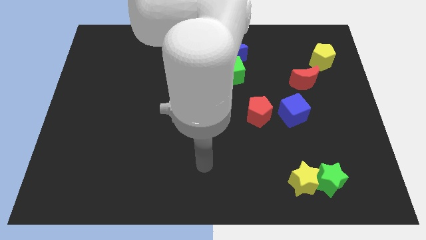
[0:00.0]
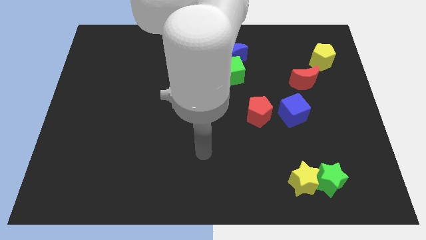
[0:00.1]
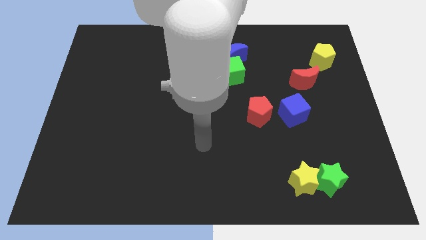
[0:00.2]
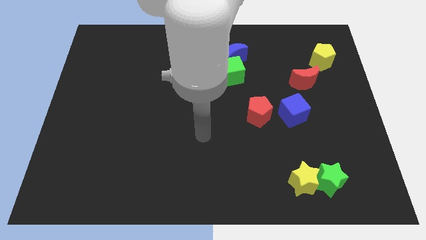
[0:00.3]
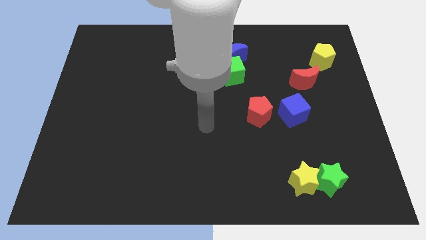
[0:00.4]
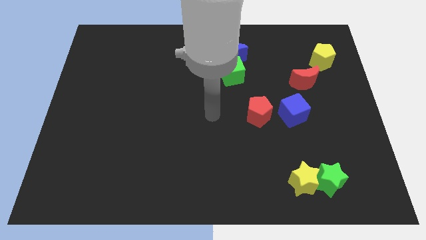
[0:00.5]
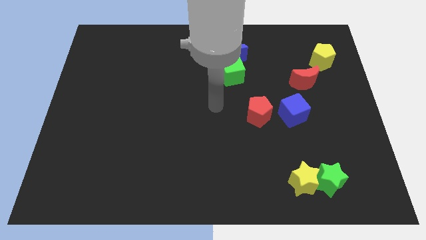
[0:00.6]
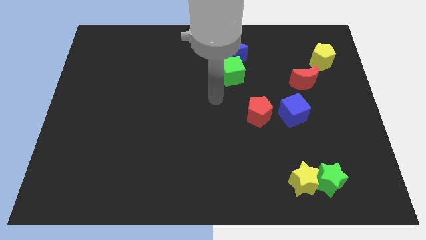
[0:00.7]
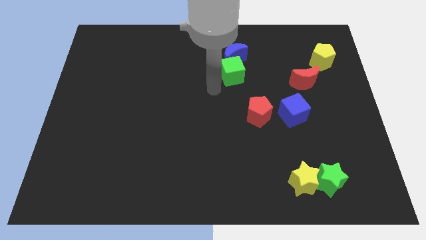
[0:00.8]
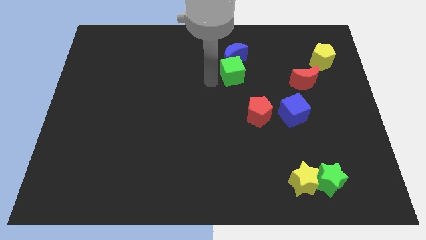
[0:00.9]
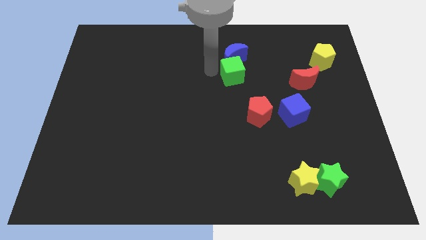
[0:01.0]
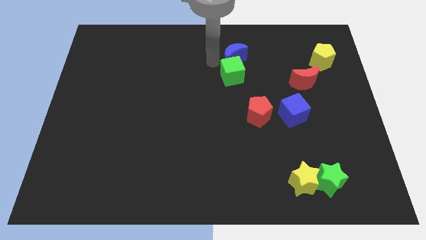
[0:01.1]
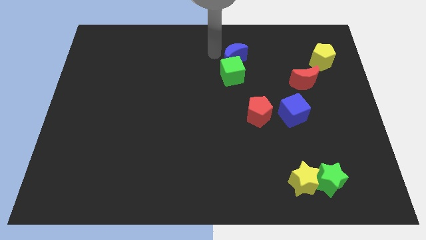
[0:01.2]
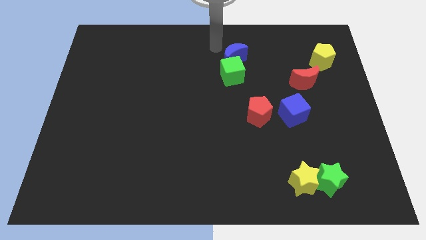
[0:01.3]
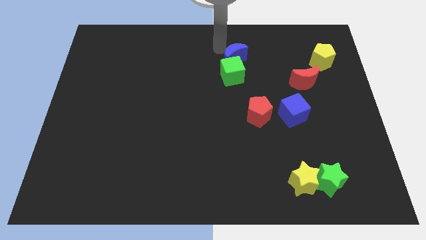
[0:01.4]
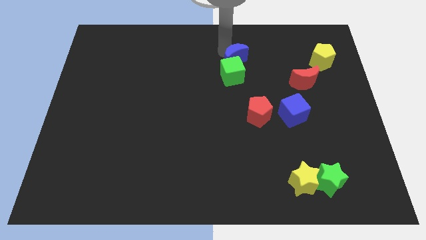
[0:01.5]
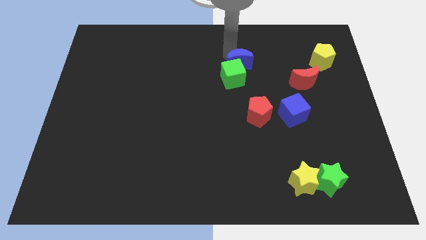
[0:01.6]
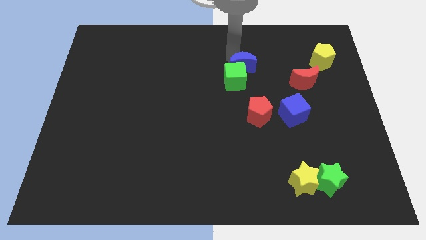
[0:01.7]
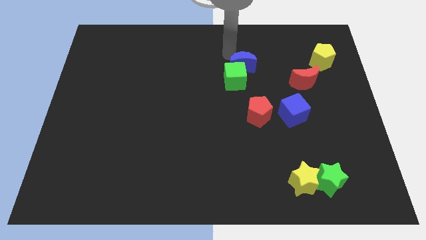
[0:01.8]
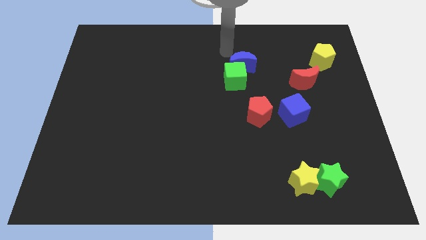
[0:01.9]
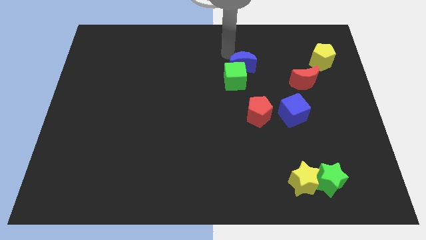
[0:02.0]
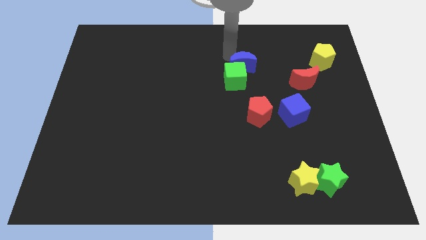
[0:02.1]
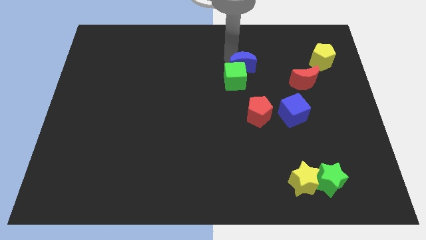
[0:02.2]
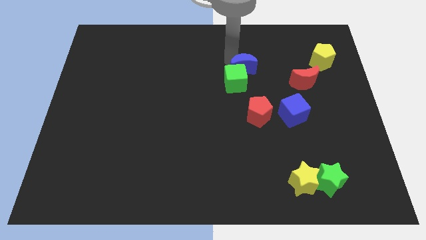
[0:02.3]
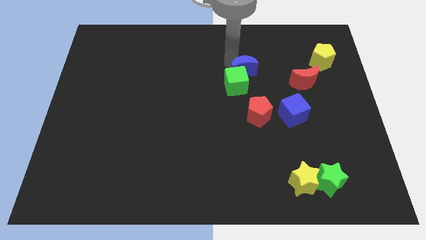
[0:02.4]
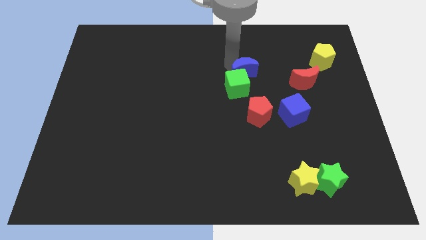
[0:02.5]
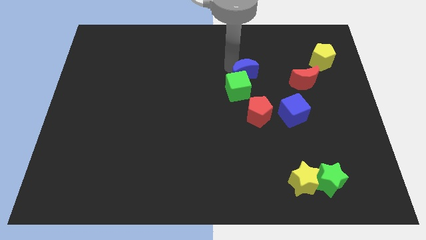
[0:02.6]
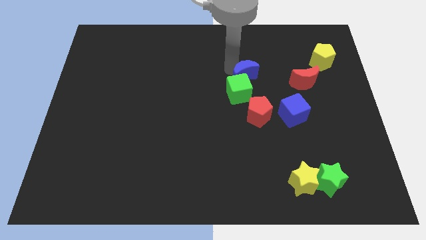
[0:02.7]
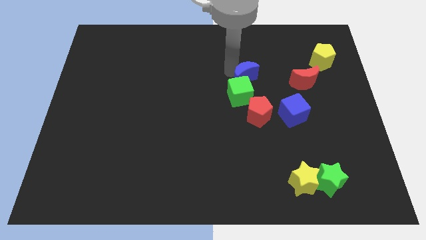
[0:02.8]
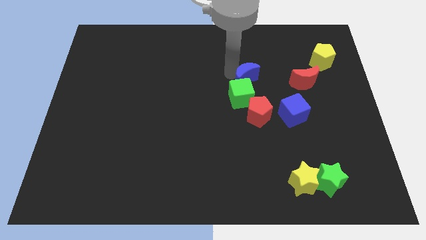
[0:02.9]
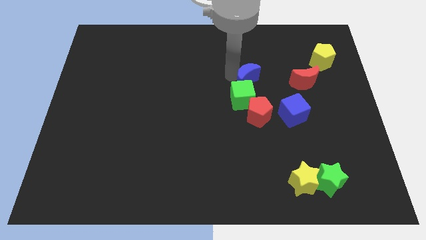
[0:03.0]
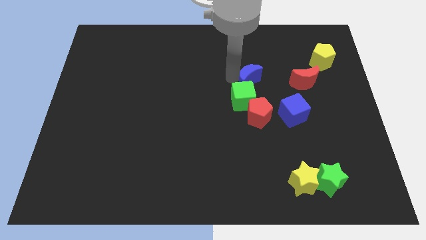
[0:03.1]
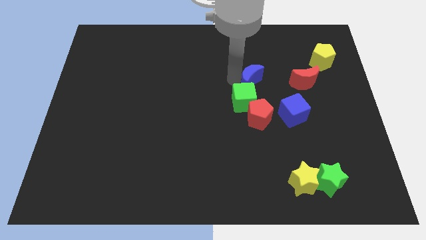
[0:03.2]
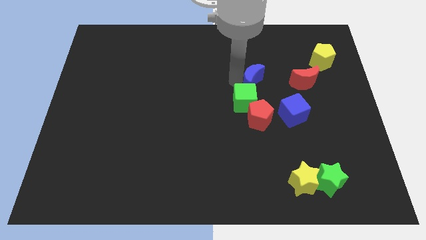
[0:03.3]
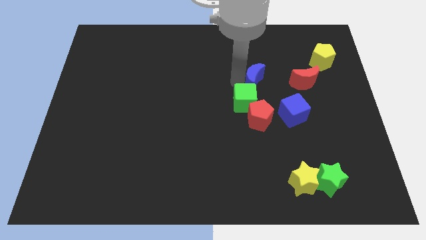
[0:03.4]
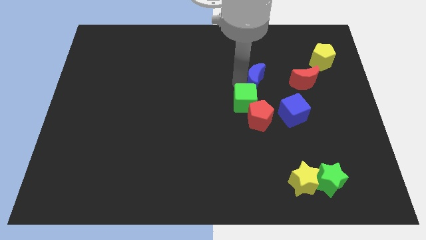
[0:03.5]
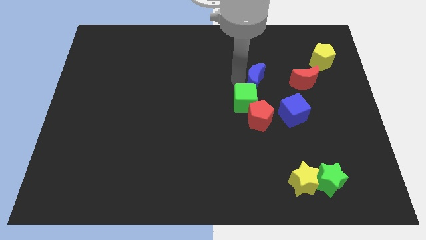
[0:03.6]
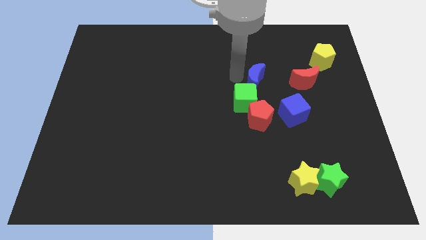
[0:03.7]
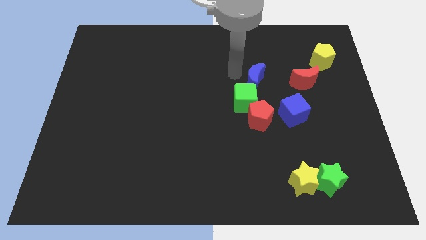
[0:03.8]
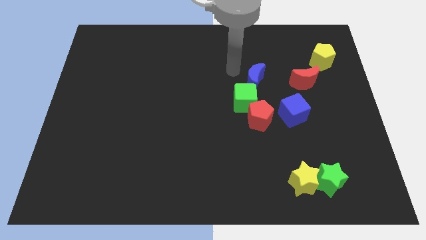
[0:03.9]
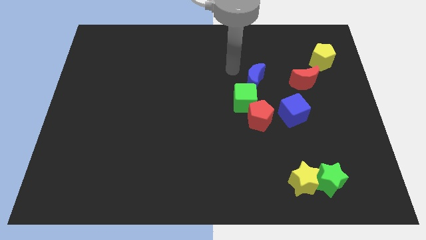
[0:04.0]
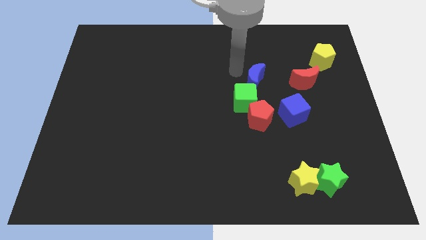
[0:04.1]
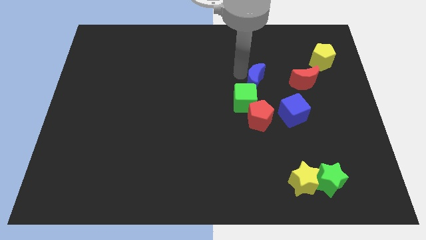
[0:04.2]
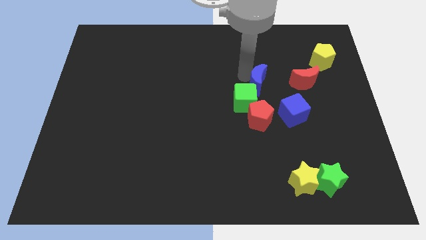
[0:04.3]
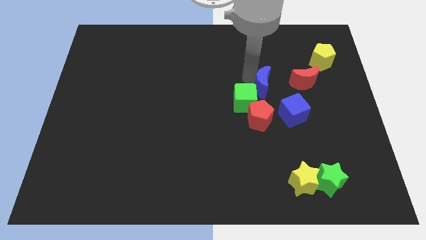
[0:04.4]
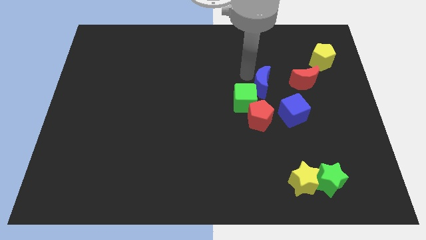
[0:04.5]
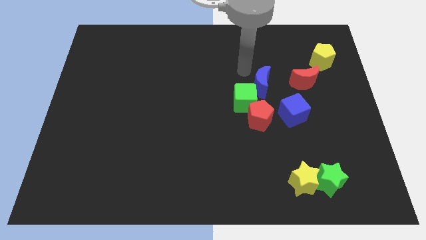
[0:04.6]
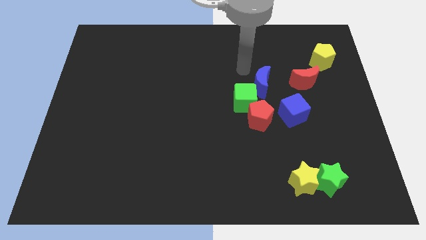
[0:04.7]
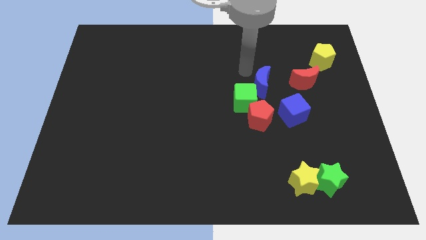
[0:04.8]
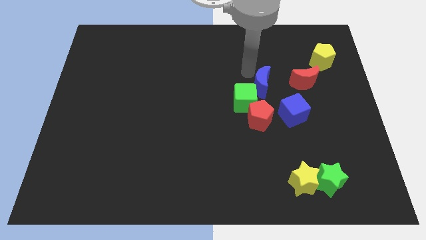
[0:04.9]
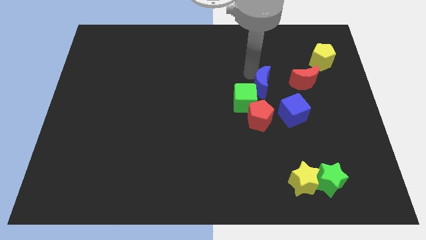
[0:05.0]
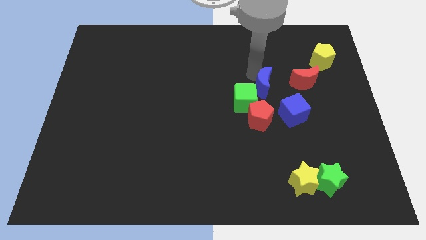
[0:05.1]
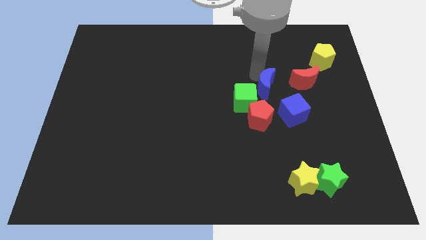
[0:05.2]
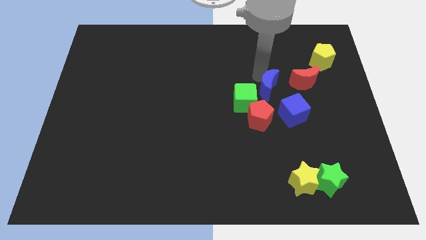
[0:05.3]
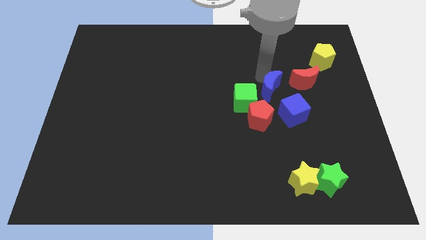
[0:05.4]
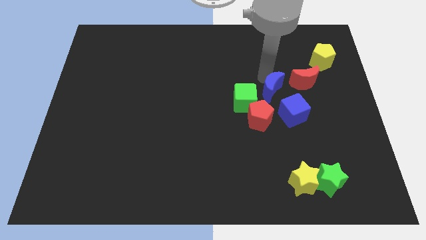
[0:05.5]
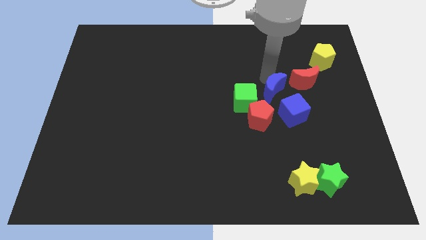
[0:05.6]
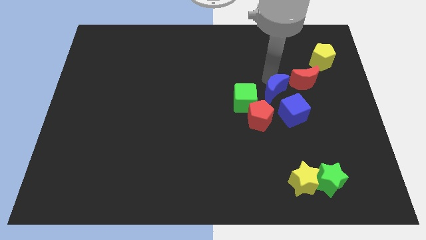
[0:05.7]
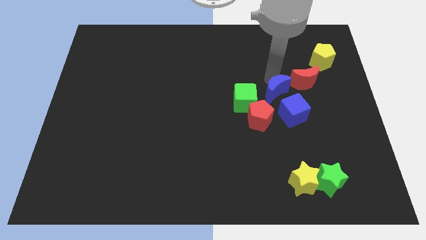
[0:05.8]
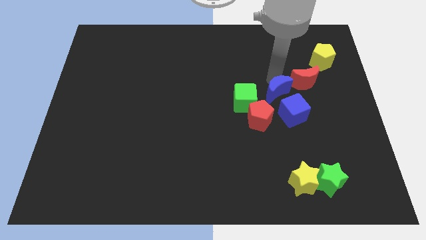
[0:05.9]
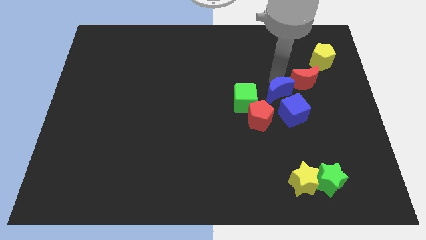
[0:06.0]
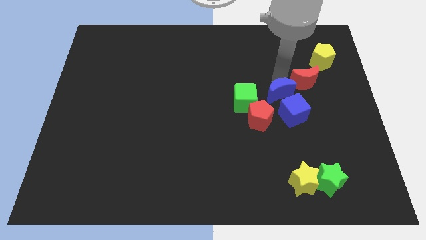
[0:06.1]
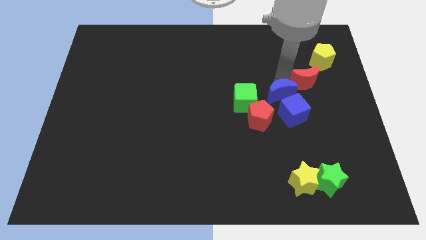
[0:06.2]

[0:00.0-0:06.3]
push the blue moon towards the blue cube

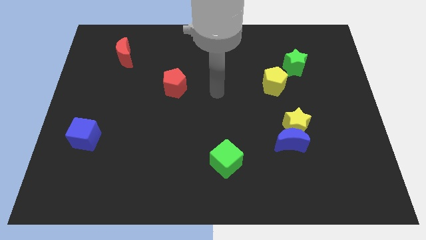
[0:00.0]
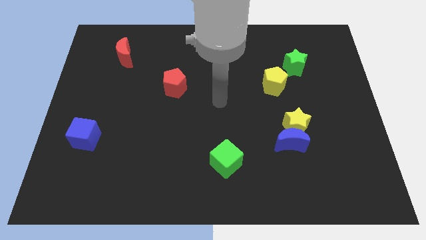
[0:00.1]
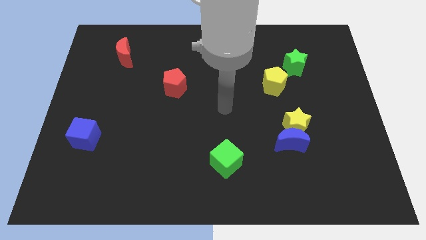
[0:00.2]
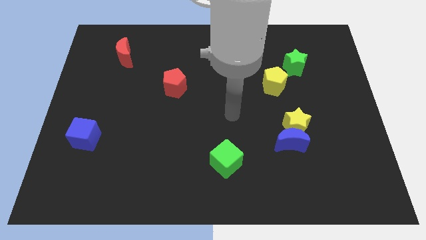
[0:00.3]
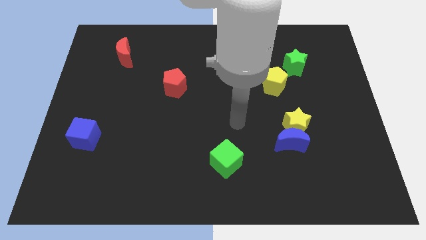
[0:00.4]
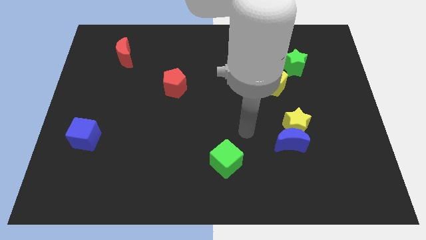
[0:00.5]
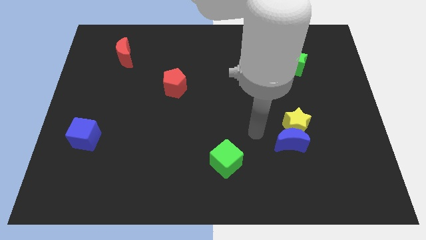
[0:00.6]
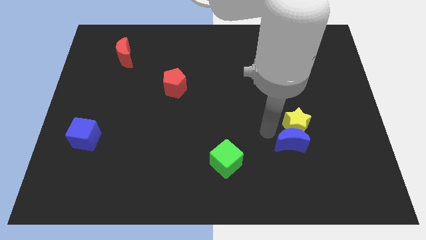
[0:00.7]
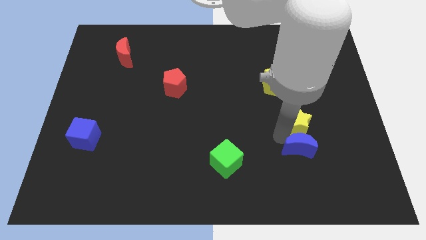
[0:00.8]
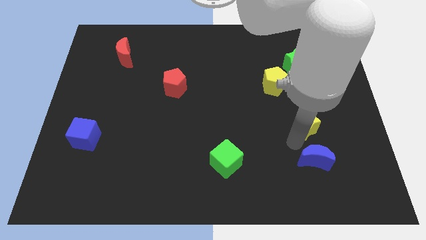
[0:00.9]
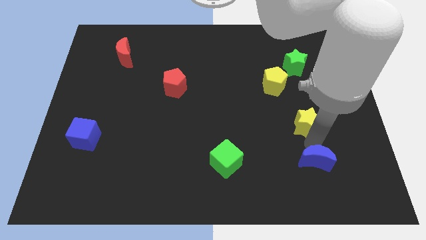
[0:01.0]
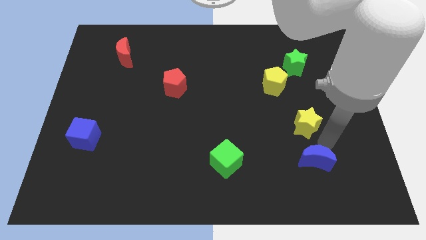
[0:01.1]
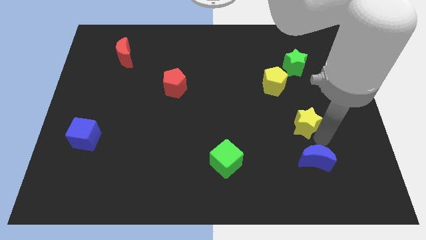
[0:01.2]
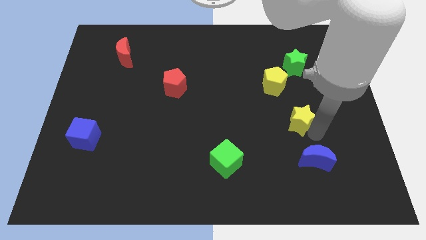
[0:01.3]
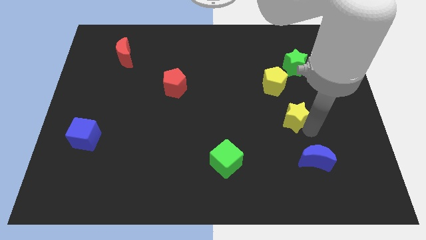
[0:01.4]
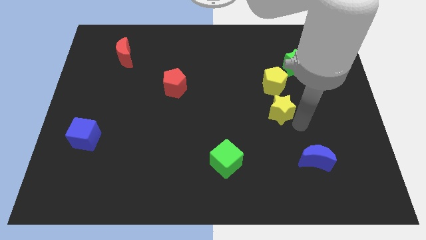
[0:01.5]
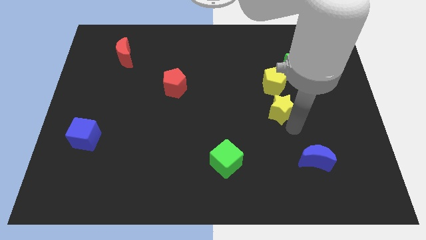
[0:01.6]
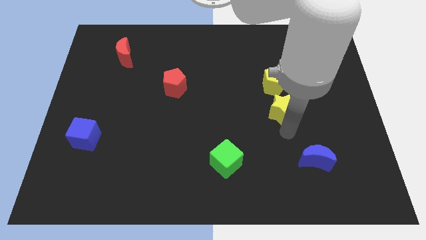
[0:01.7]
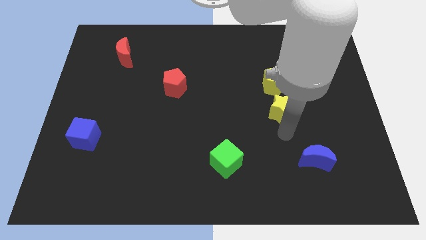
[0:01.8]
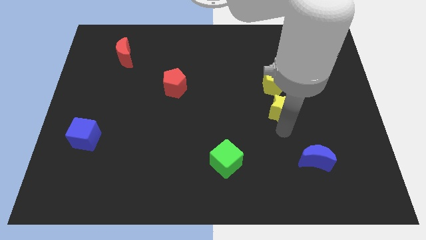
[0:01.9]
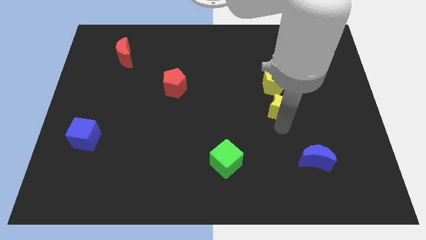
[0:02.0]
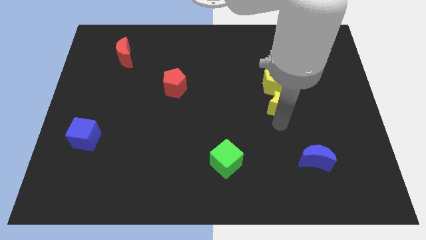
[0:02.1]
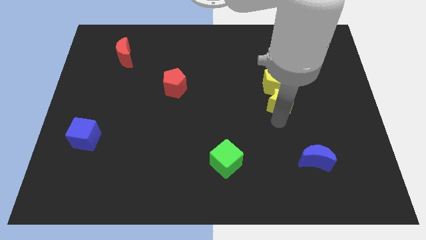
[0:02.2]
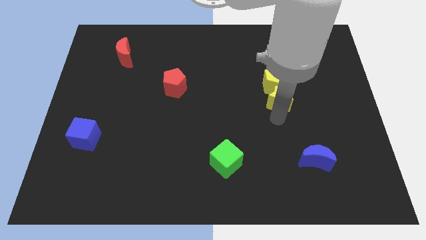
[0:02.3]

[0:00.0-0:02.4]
push the yellow star next to the yellow pentagon
